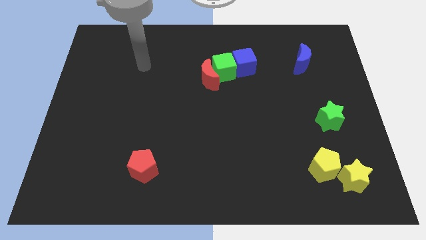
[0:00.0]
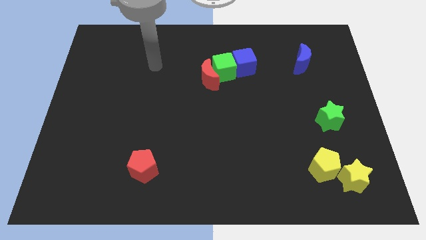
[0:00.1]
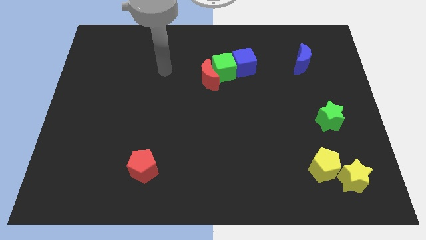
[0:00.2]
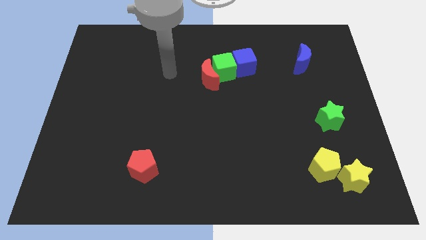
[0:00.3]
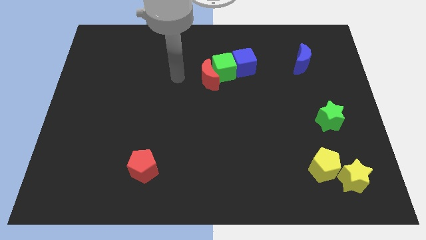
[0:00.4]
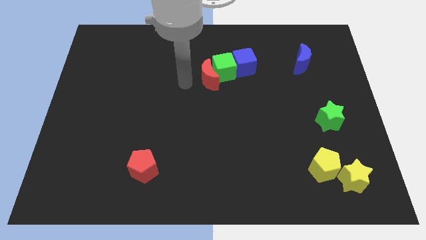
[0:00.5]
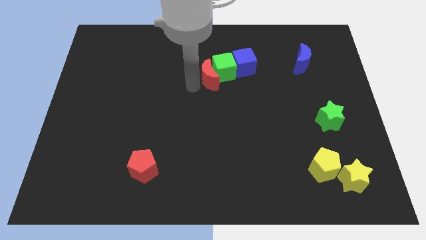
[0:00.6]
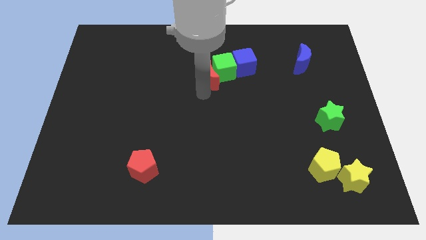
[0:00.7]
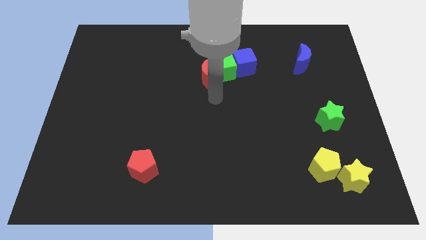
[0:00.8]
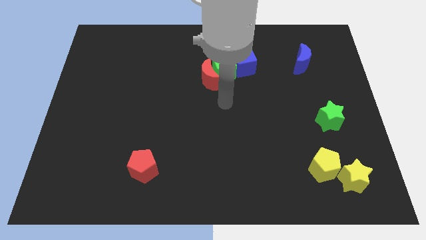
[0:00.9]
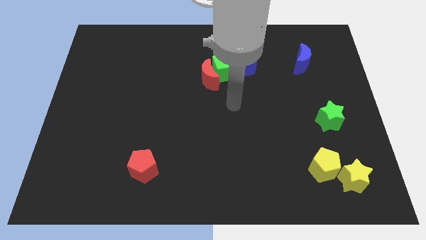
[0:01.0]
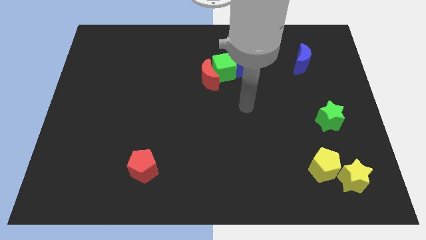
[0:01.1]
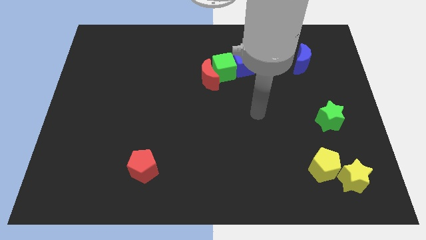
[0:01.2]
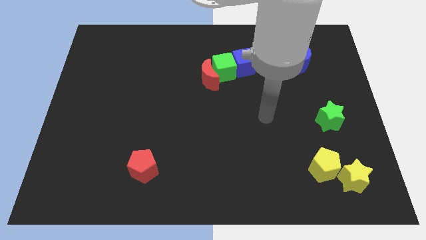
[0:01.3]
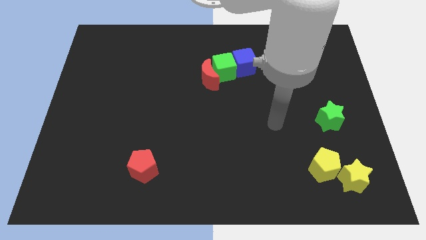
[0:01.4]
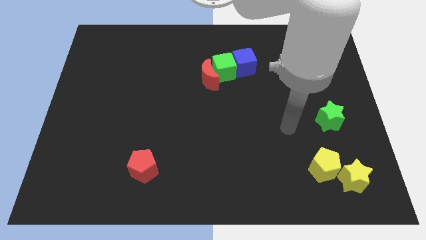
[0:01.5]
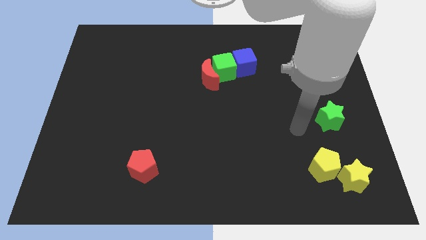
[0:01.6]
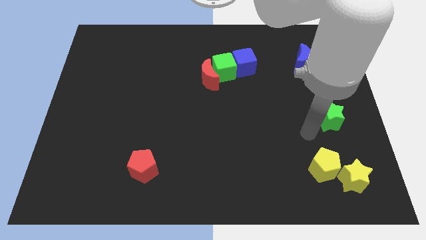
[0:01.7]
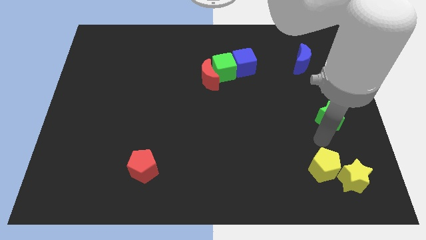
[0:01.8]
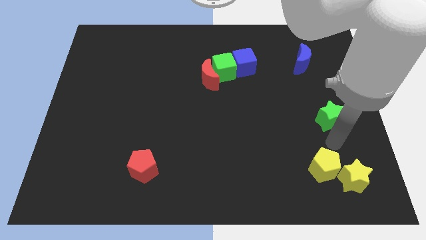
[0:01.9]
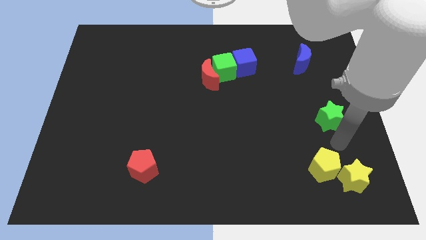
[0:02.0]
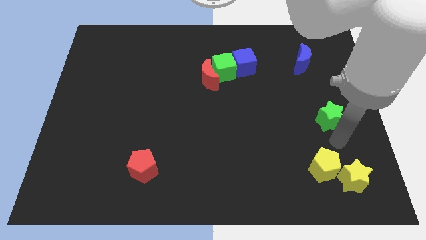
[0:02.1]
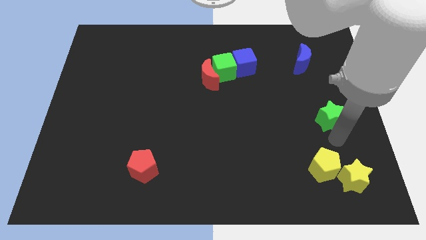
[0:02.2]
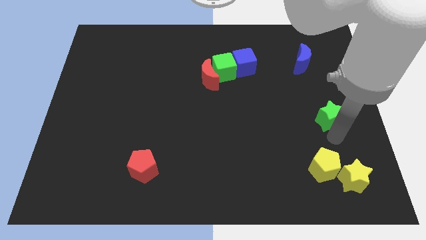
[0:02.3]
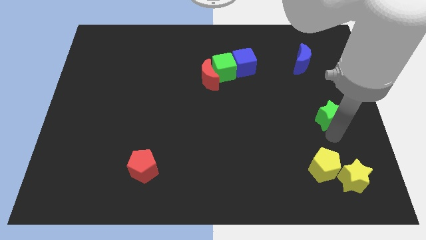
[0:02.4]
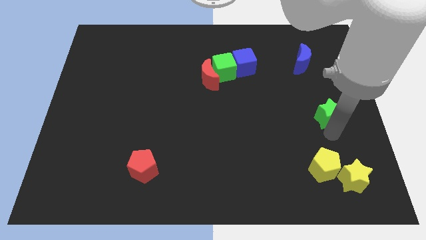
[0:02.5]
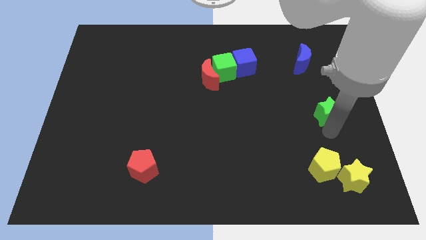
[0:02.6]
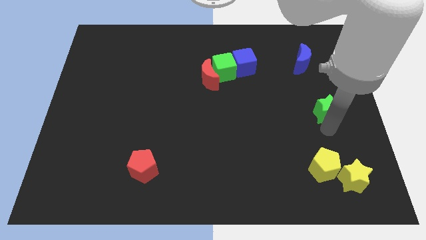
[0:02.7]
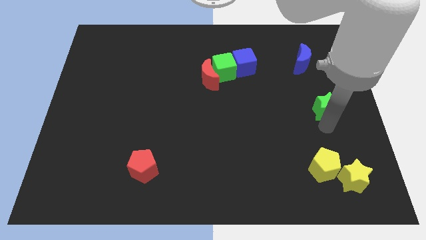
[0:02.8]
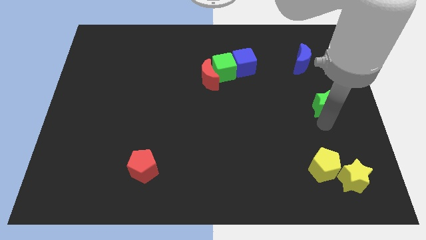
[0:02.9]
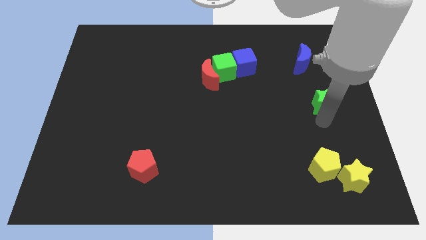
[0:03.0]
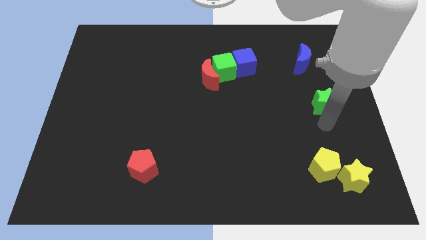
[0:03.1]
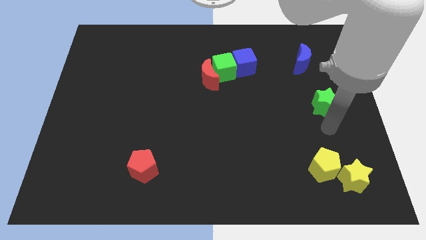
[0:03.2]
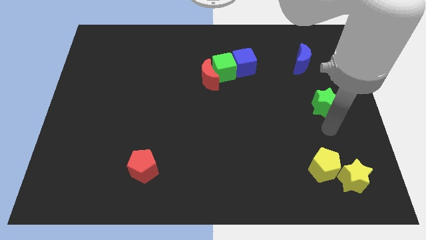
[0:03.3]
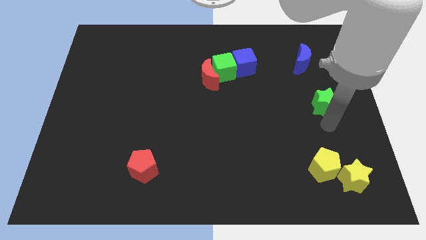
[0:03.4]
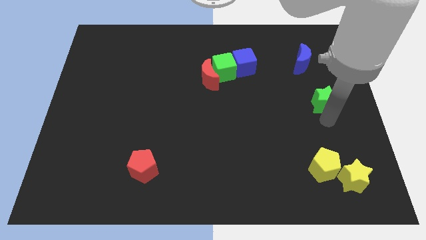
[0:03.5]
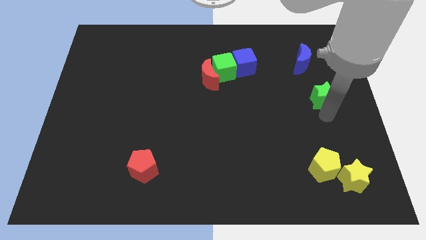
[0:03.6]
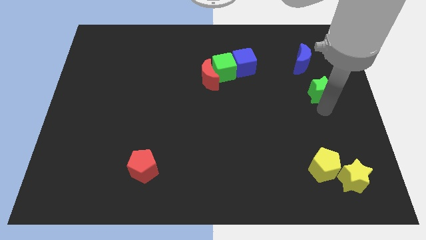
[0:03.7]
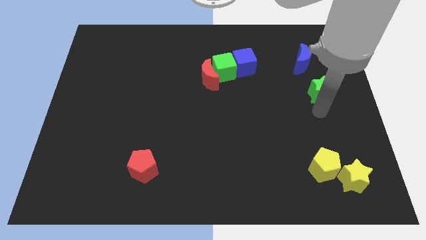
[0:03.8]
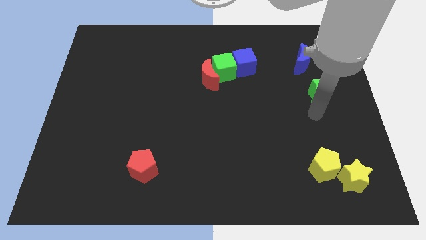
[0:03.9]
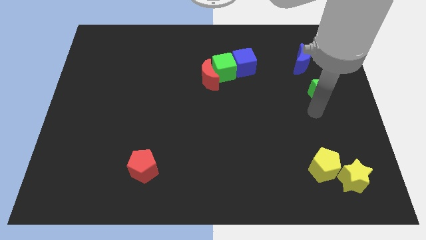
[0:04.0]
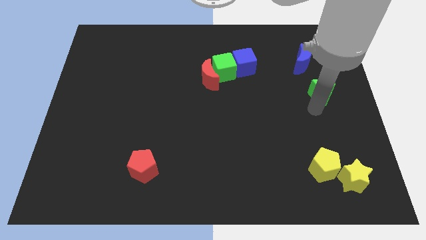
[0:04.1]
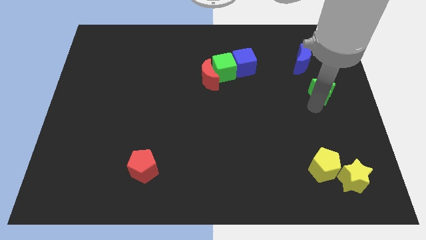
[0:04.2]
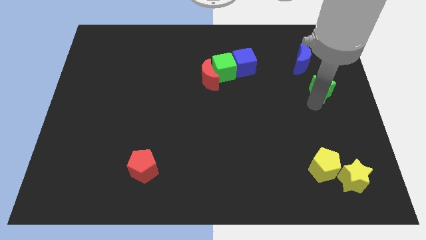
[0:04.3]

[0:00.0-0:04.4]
push the green star to the bottom right side of the blue moon

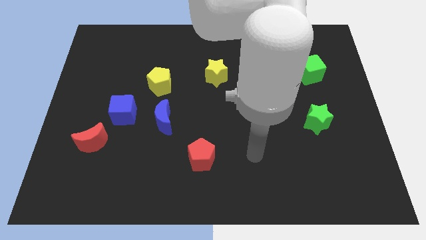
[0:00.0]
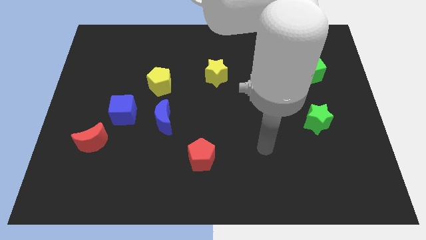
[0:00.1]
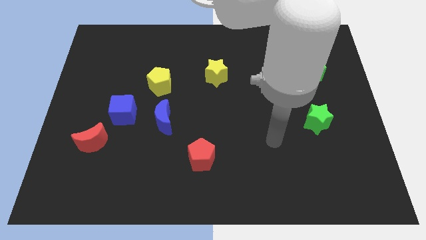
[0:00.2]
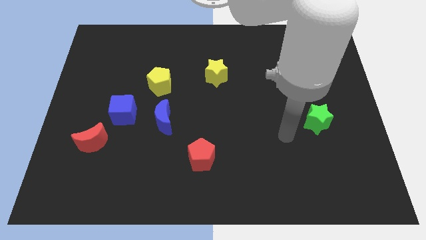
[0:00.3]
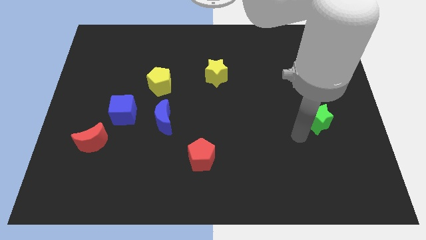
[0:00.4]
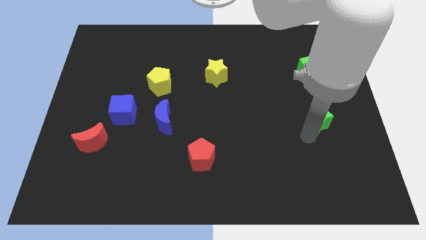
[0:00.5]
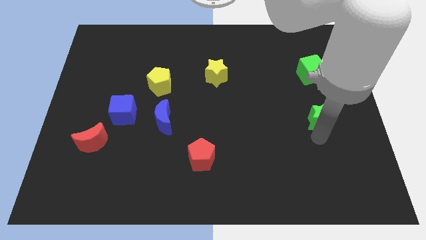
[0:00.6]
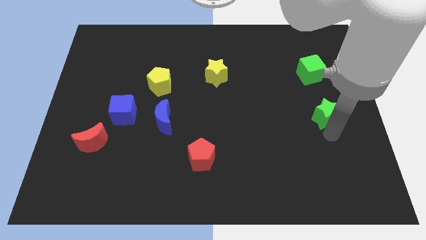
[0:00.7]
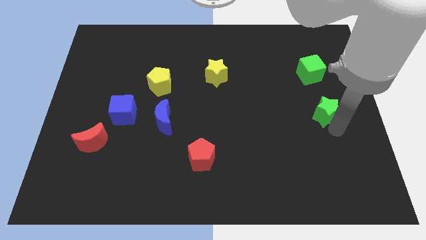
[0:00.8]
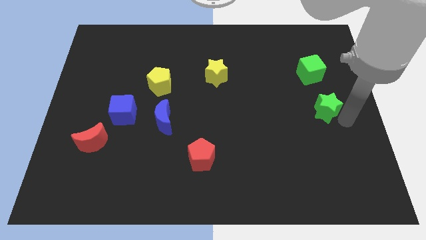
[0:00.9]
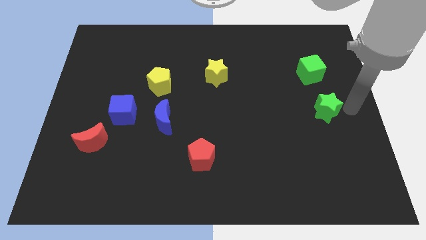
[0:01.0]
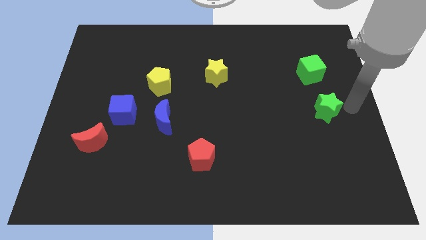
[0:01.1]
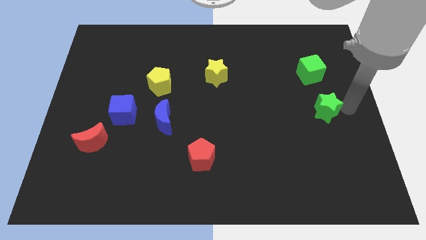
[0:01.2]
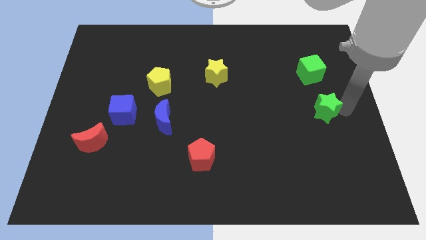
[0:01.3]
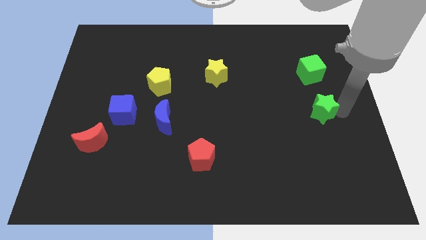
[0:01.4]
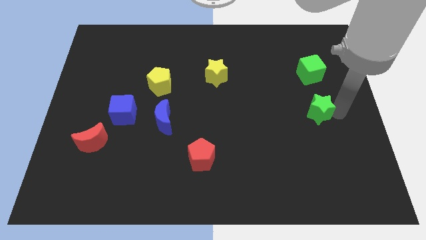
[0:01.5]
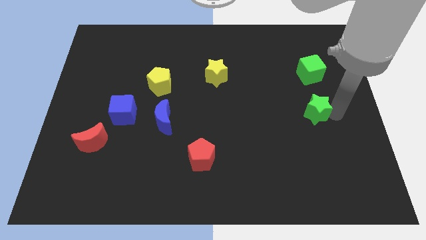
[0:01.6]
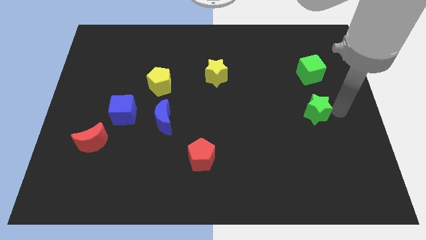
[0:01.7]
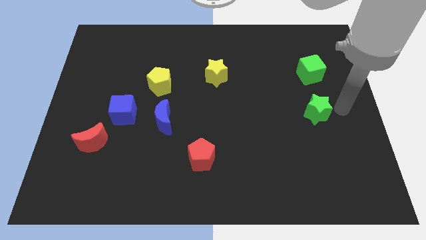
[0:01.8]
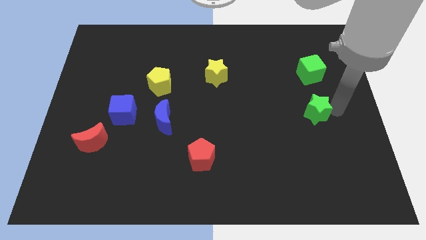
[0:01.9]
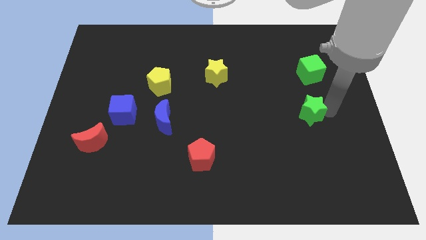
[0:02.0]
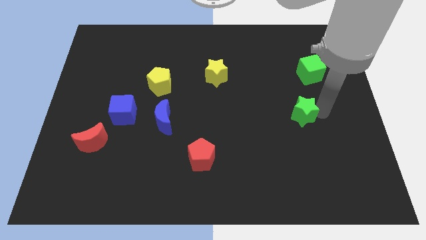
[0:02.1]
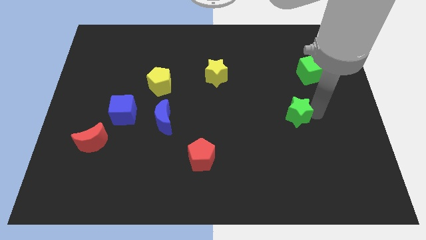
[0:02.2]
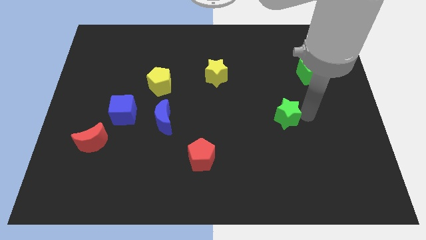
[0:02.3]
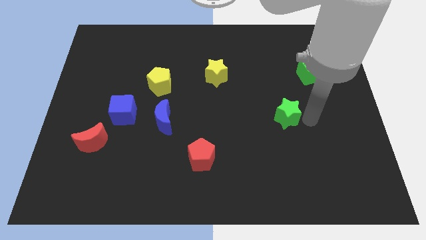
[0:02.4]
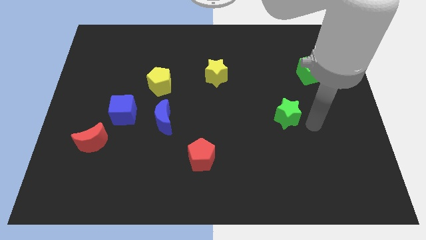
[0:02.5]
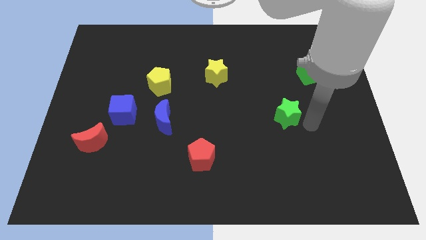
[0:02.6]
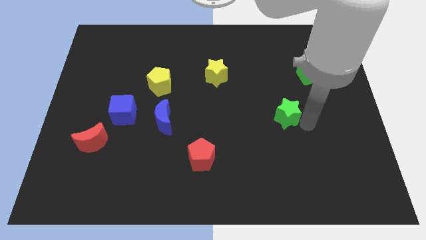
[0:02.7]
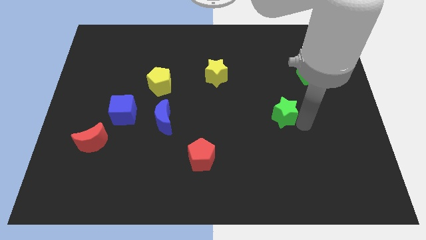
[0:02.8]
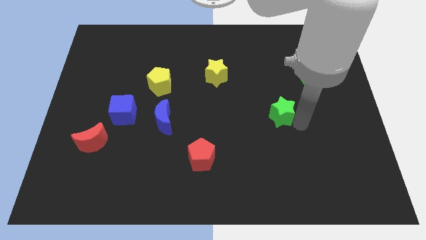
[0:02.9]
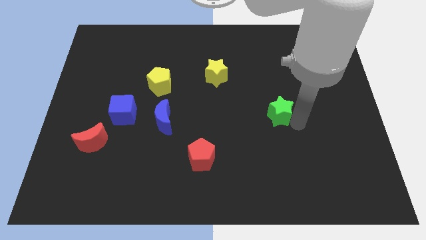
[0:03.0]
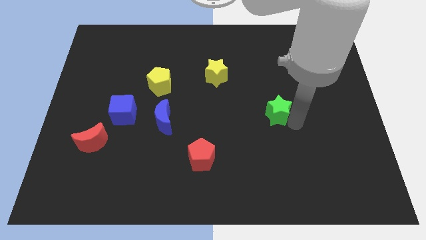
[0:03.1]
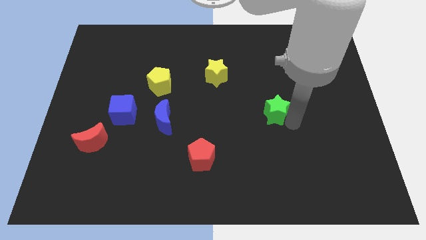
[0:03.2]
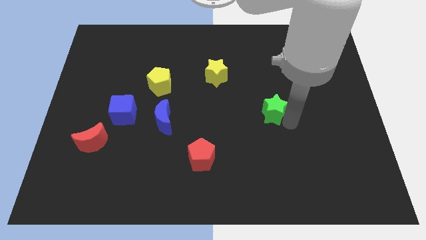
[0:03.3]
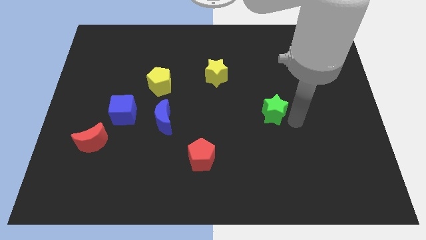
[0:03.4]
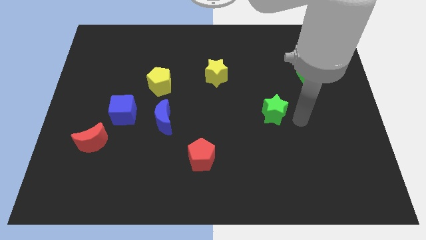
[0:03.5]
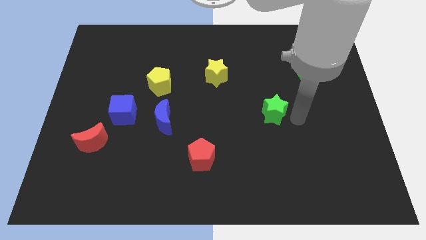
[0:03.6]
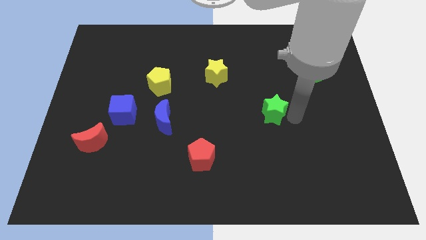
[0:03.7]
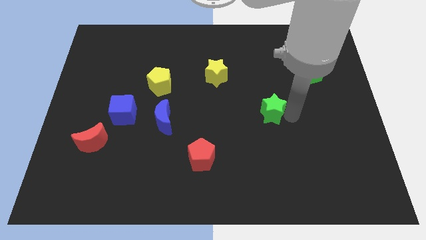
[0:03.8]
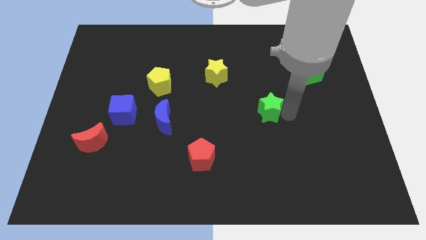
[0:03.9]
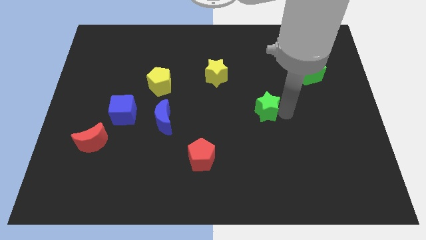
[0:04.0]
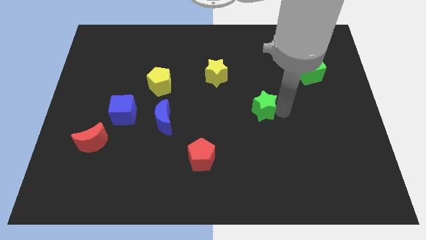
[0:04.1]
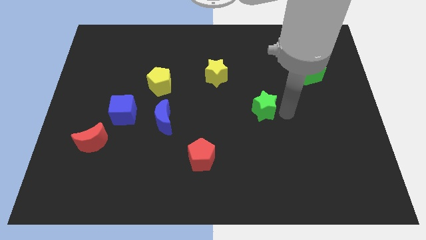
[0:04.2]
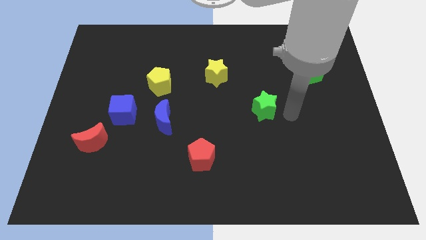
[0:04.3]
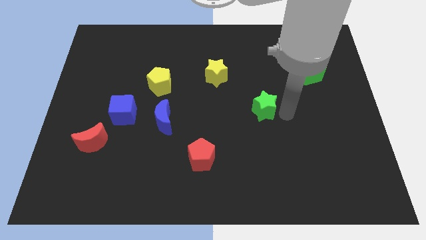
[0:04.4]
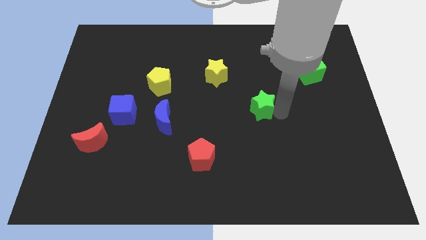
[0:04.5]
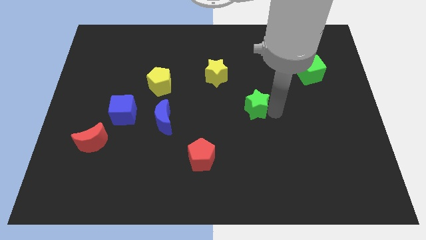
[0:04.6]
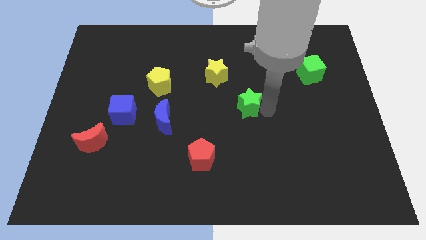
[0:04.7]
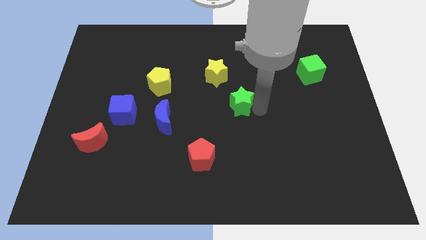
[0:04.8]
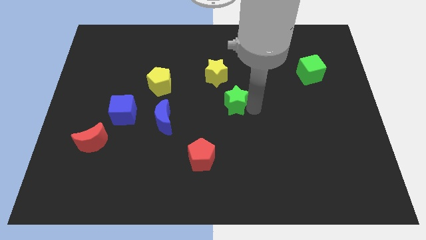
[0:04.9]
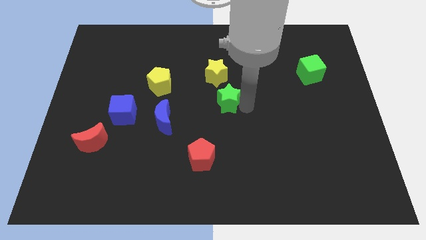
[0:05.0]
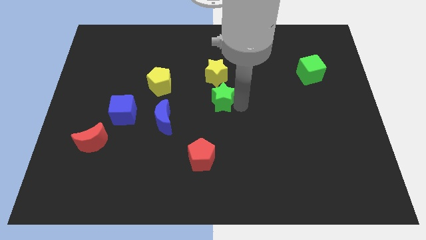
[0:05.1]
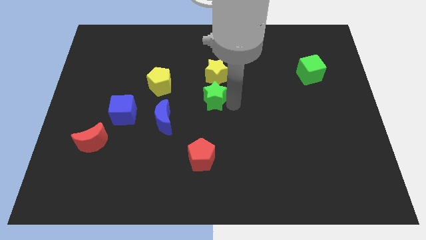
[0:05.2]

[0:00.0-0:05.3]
put the green star diagonally down and to the left of the yellow star
